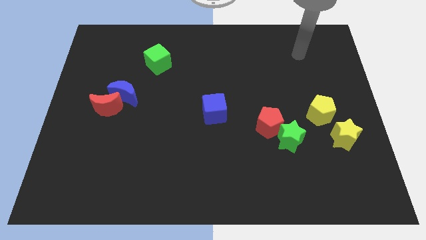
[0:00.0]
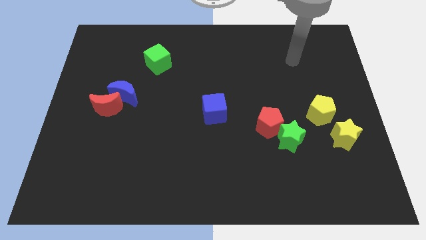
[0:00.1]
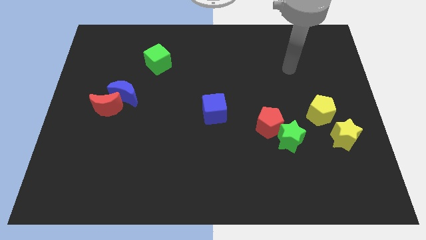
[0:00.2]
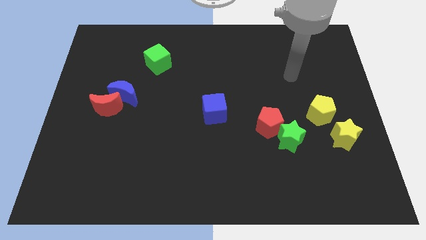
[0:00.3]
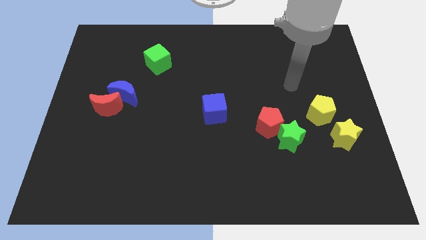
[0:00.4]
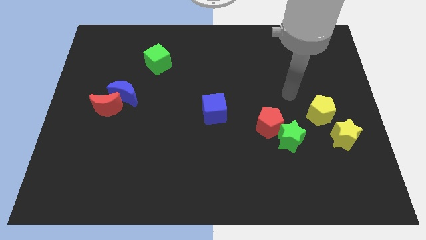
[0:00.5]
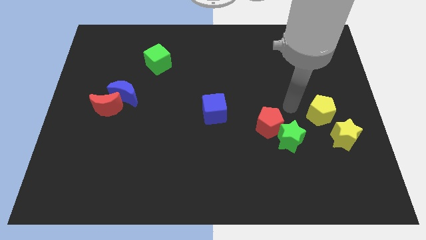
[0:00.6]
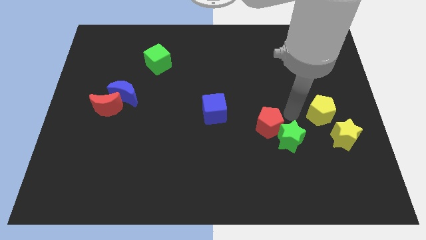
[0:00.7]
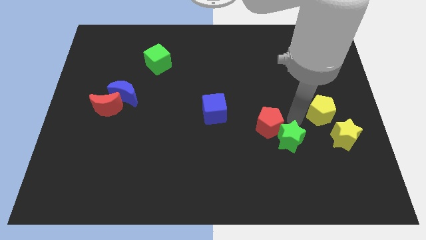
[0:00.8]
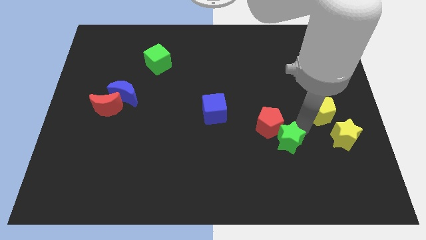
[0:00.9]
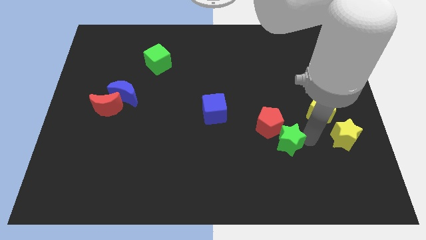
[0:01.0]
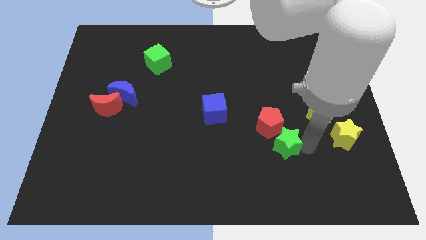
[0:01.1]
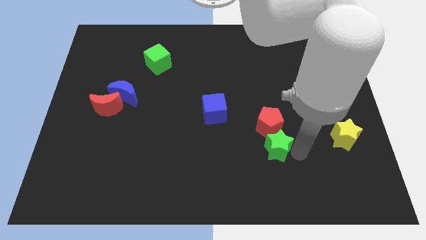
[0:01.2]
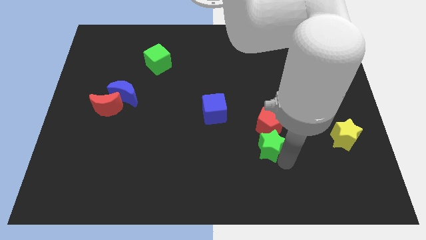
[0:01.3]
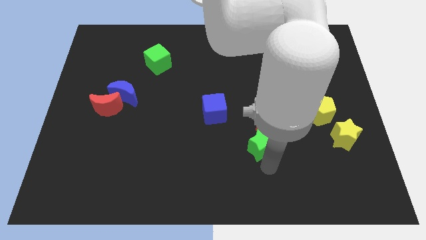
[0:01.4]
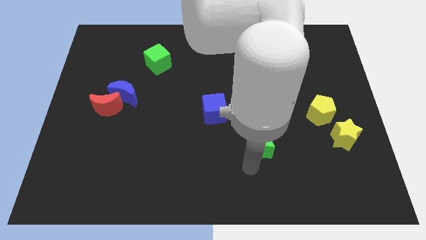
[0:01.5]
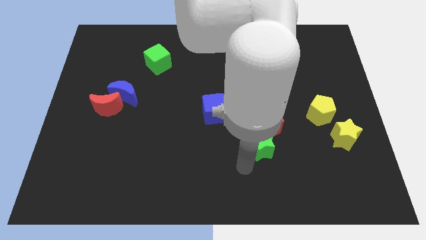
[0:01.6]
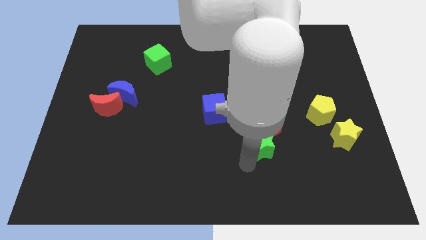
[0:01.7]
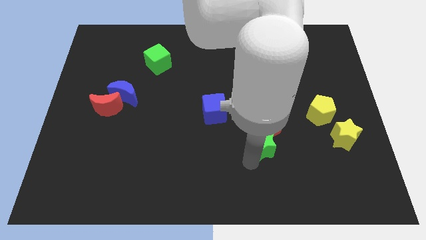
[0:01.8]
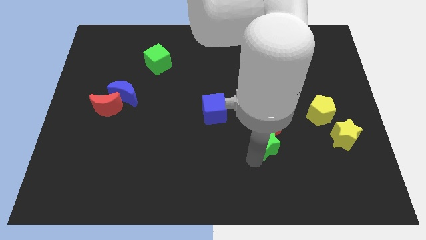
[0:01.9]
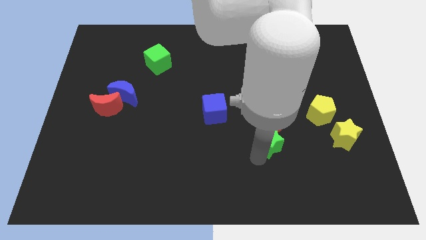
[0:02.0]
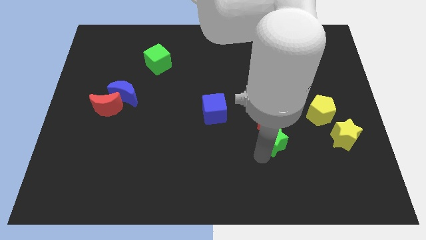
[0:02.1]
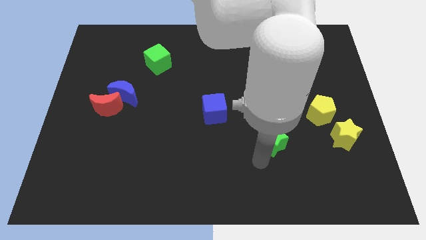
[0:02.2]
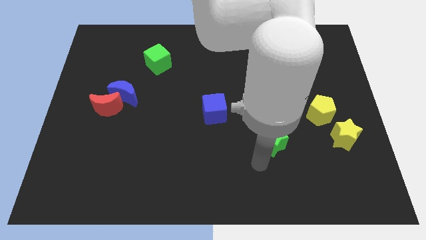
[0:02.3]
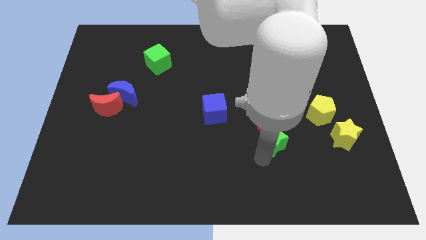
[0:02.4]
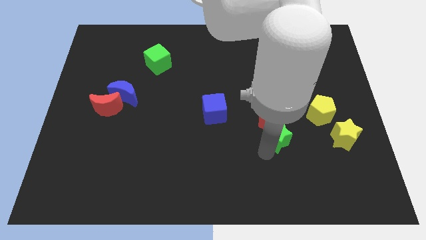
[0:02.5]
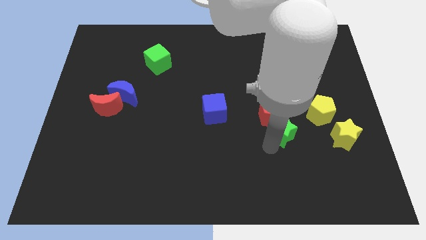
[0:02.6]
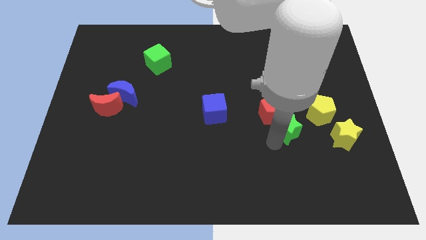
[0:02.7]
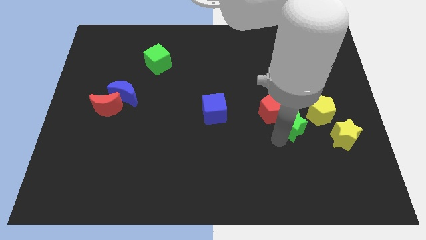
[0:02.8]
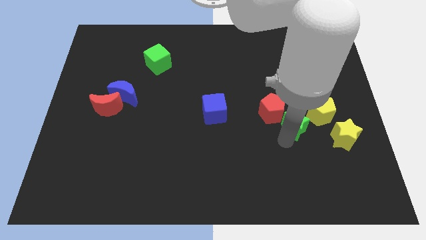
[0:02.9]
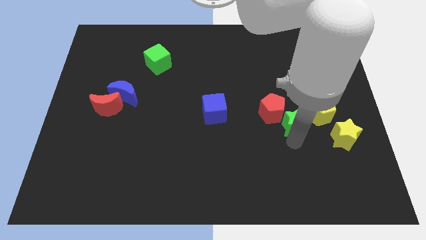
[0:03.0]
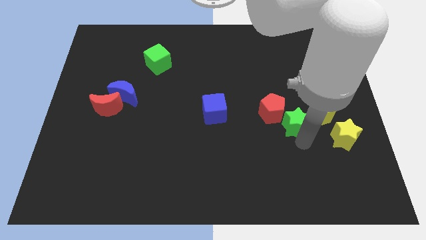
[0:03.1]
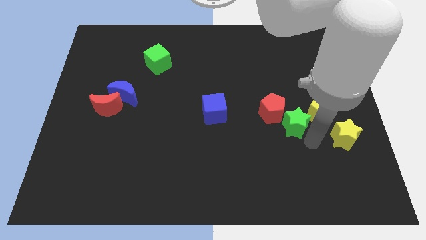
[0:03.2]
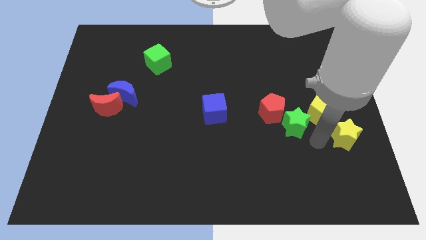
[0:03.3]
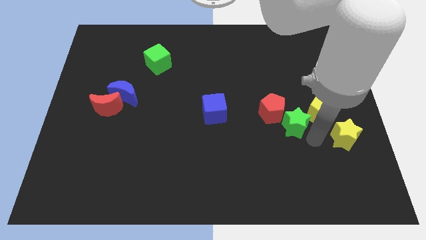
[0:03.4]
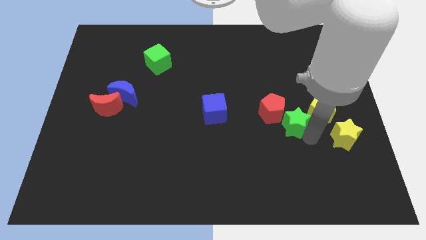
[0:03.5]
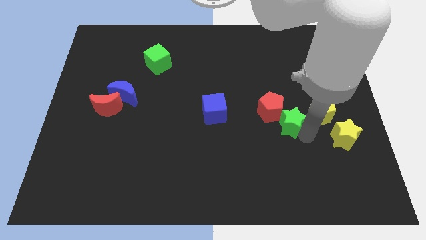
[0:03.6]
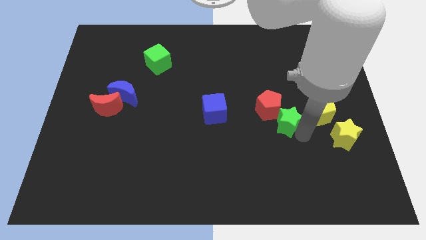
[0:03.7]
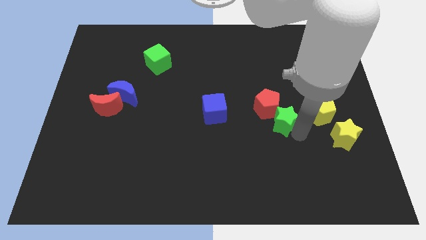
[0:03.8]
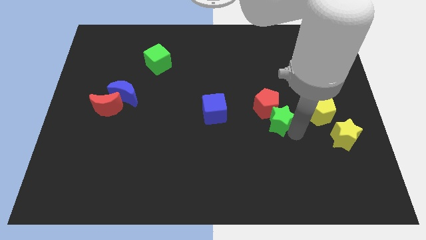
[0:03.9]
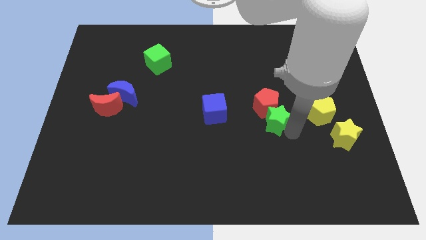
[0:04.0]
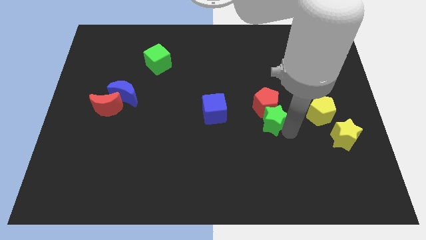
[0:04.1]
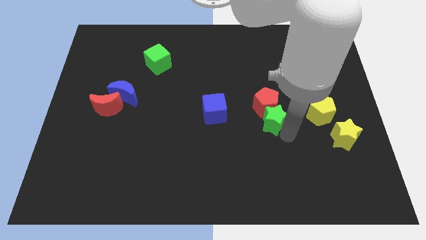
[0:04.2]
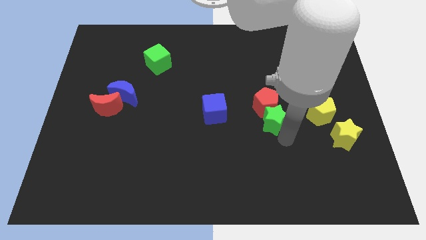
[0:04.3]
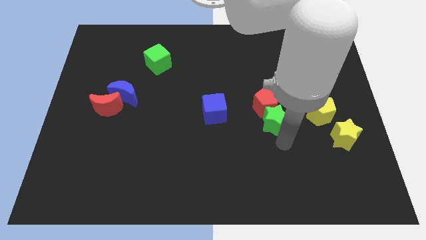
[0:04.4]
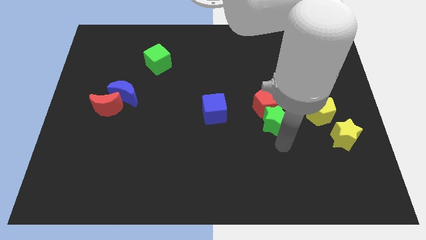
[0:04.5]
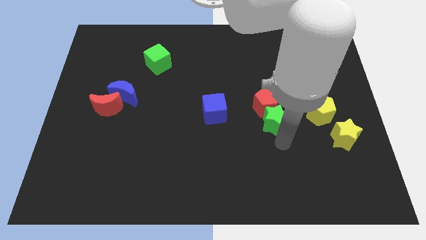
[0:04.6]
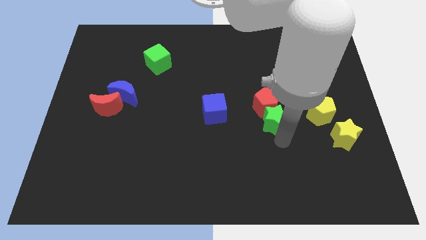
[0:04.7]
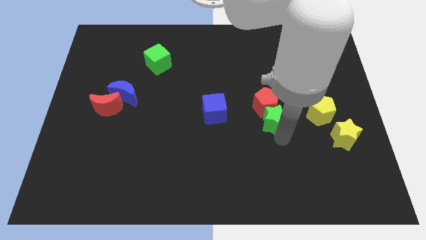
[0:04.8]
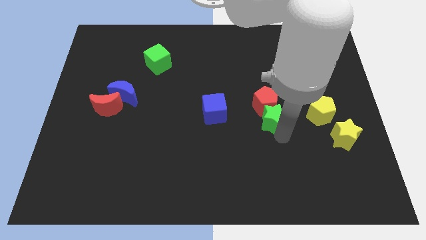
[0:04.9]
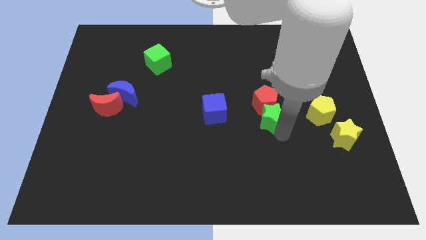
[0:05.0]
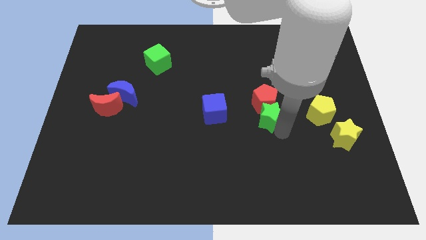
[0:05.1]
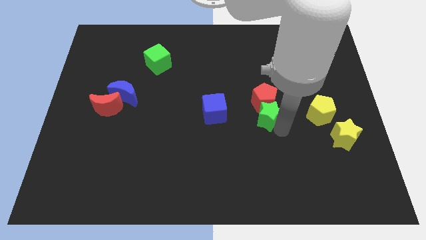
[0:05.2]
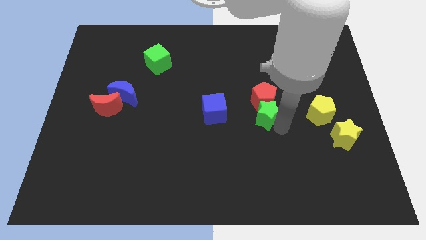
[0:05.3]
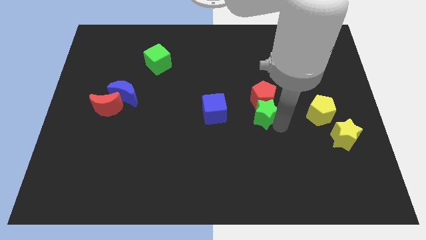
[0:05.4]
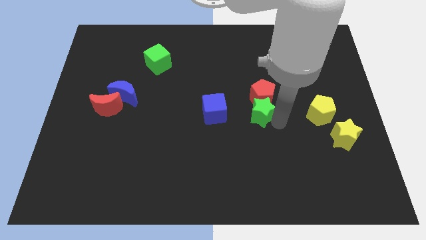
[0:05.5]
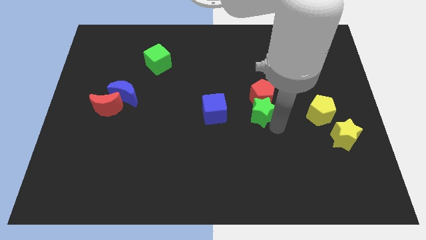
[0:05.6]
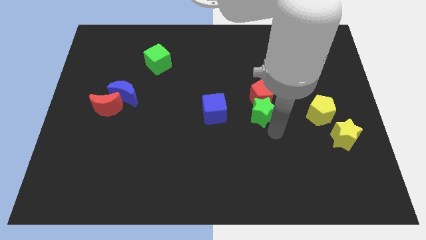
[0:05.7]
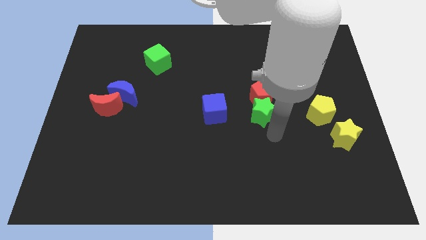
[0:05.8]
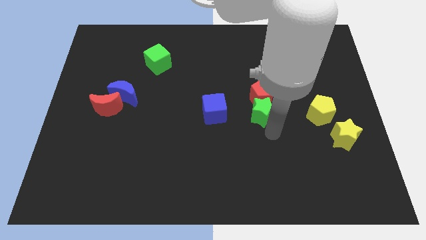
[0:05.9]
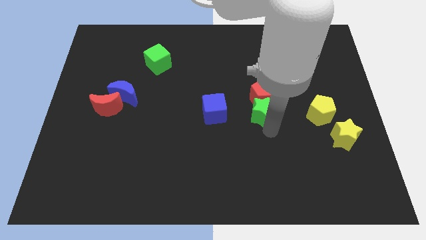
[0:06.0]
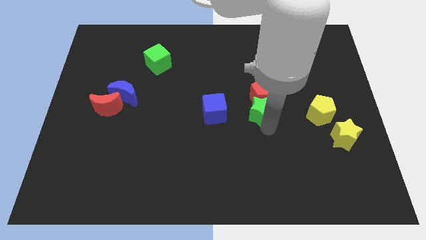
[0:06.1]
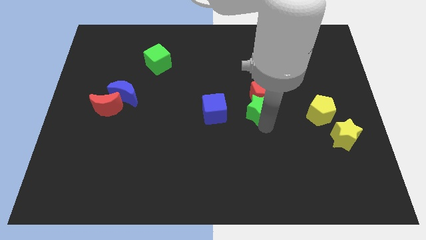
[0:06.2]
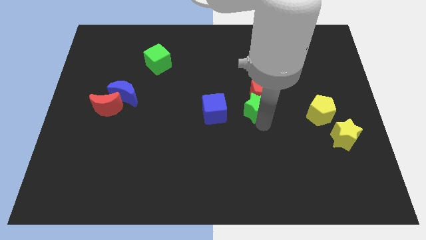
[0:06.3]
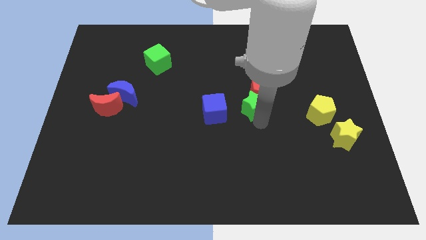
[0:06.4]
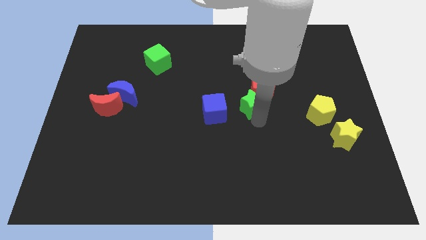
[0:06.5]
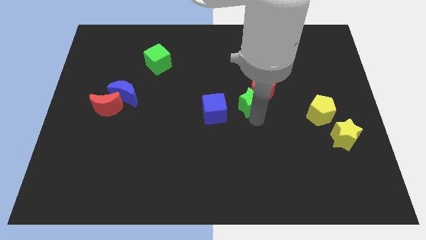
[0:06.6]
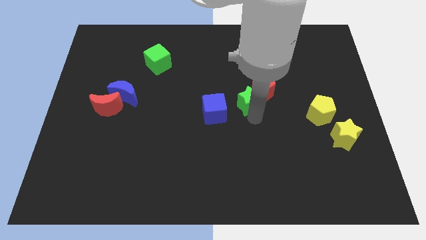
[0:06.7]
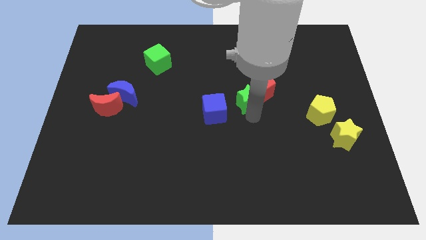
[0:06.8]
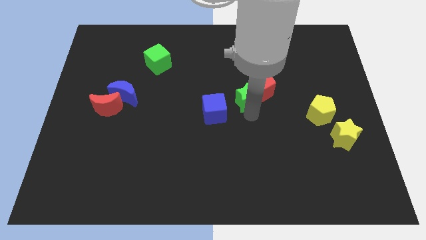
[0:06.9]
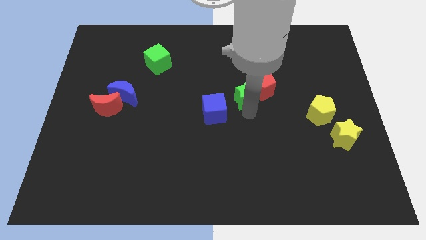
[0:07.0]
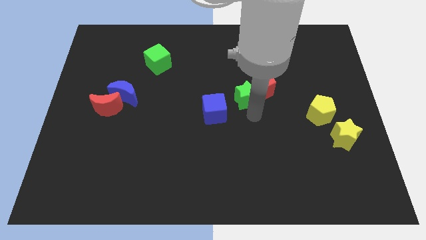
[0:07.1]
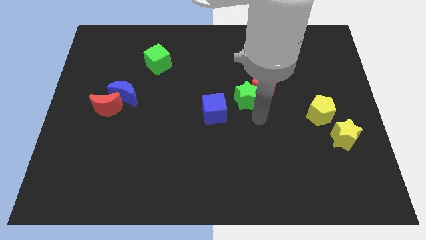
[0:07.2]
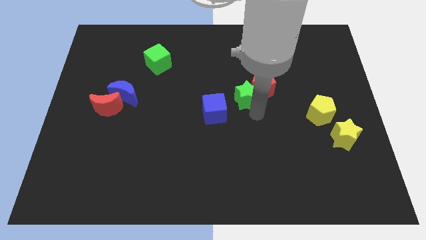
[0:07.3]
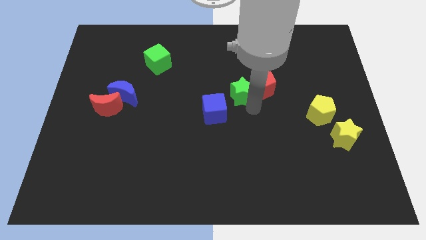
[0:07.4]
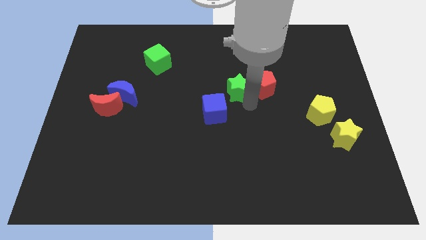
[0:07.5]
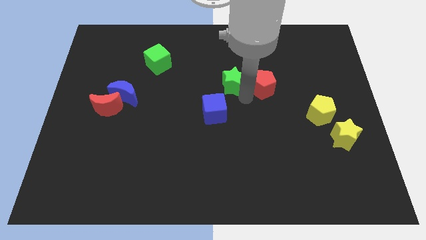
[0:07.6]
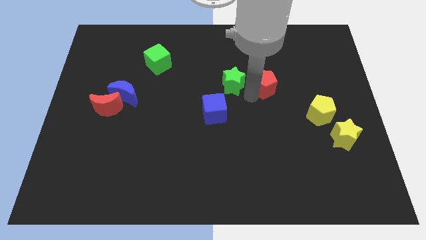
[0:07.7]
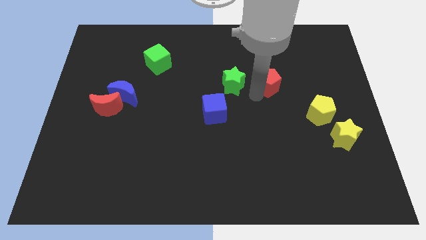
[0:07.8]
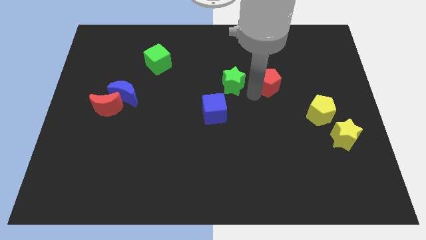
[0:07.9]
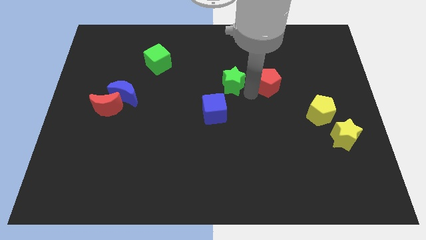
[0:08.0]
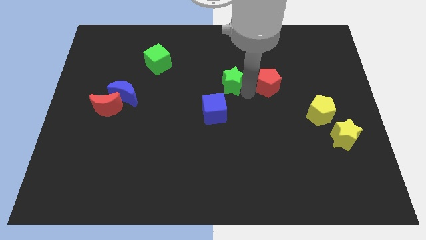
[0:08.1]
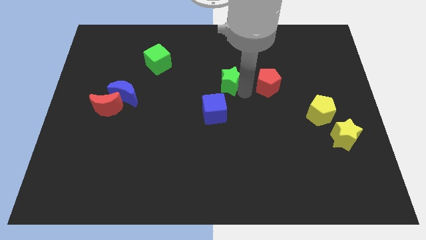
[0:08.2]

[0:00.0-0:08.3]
push the green star diagonally upwards and to the left
